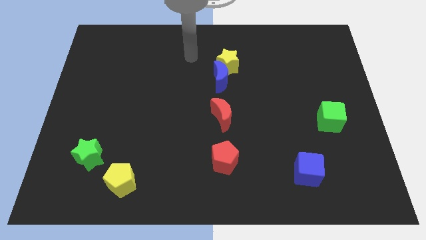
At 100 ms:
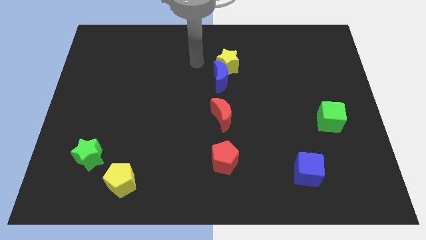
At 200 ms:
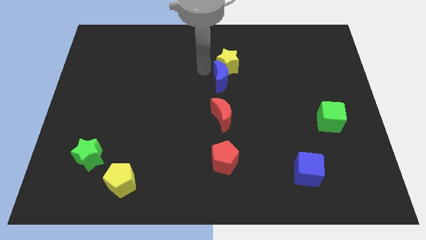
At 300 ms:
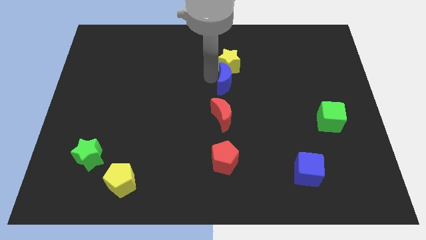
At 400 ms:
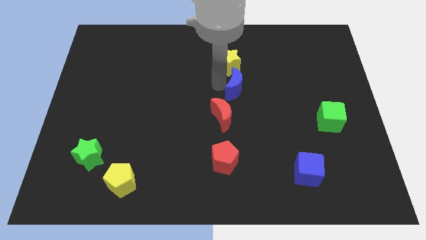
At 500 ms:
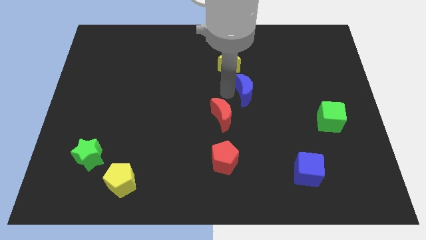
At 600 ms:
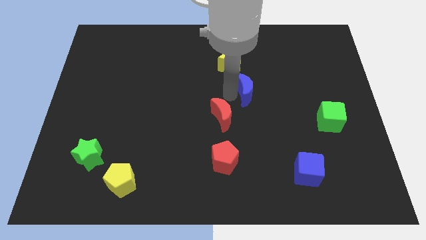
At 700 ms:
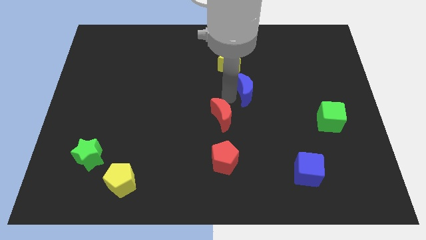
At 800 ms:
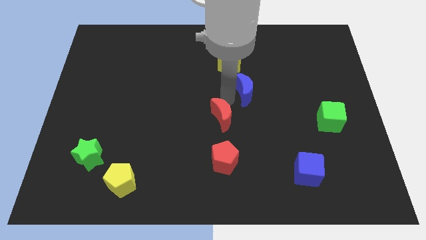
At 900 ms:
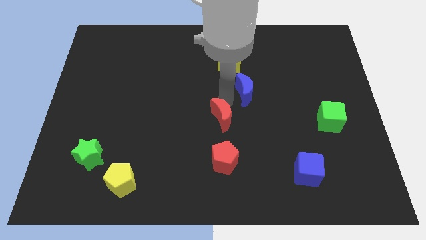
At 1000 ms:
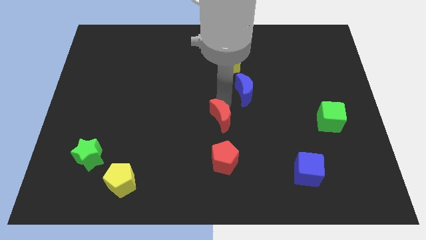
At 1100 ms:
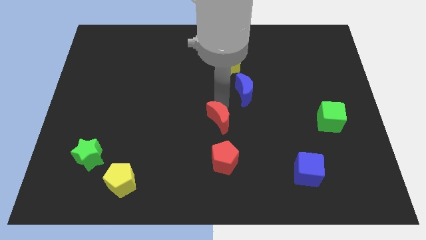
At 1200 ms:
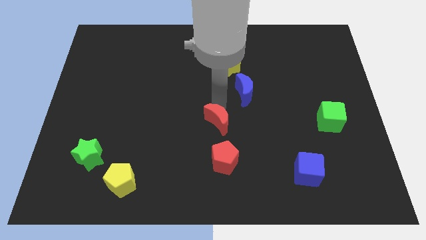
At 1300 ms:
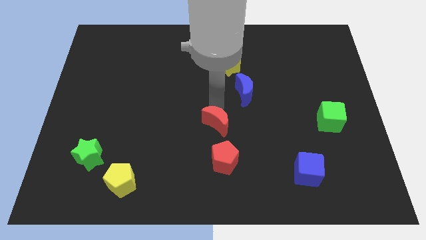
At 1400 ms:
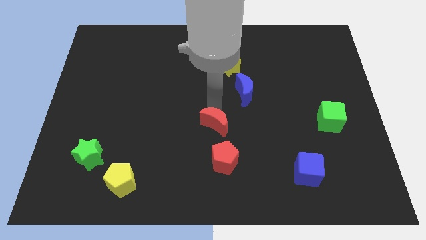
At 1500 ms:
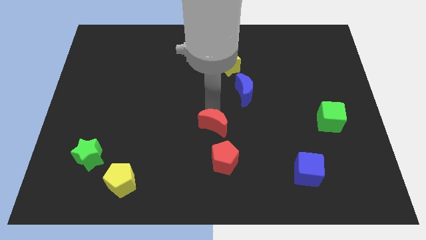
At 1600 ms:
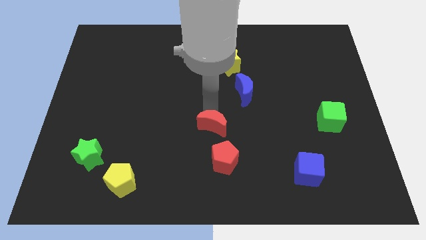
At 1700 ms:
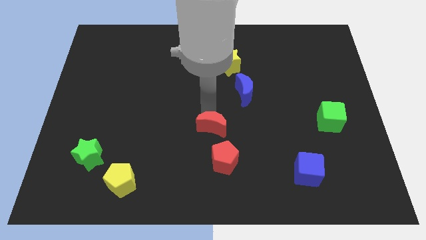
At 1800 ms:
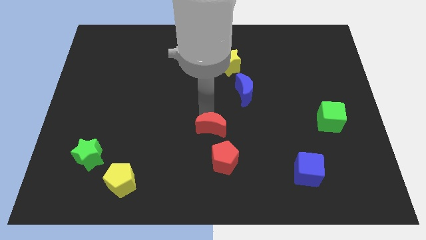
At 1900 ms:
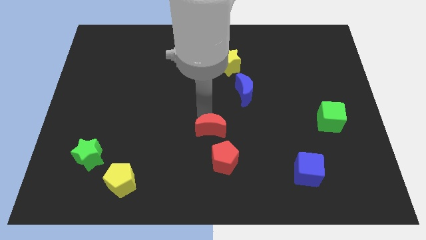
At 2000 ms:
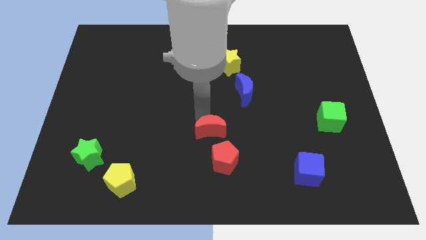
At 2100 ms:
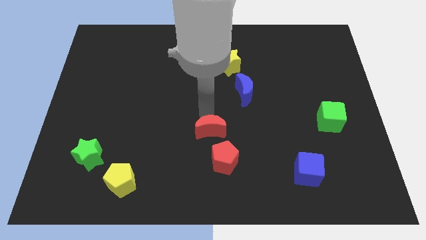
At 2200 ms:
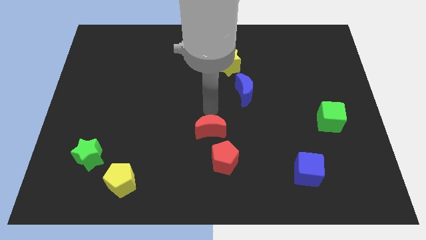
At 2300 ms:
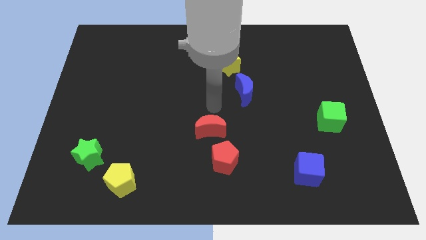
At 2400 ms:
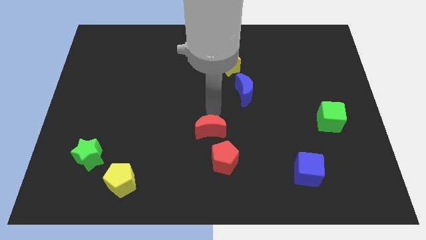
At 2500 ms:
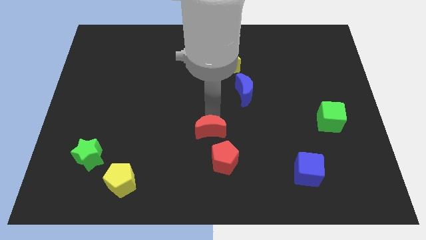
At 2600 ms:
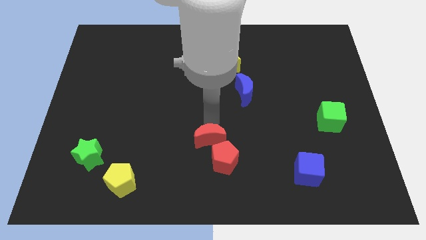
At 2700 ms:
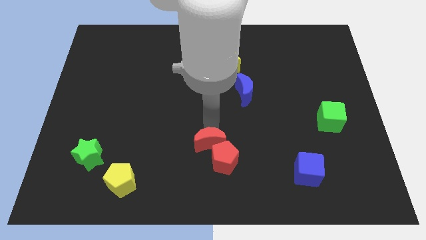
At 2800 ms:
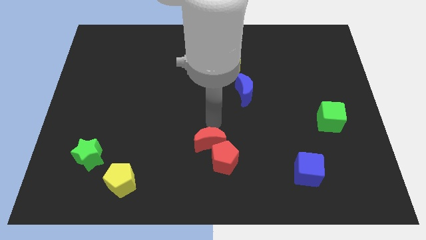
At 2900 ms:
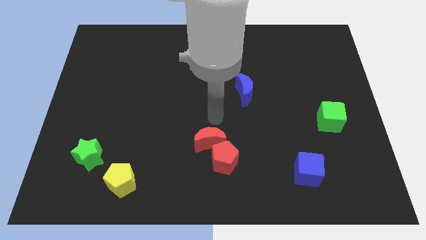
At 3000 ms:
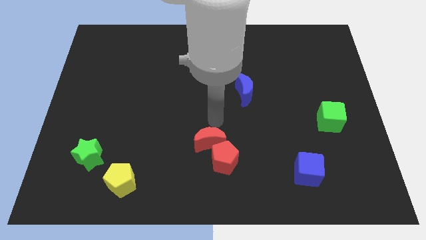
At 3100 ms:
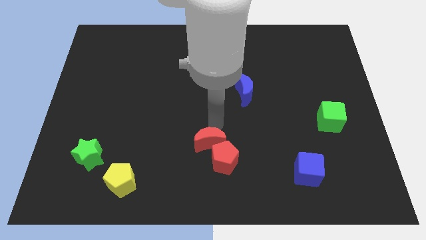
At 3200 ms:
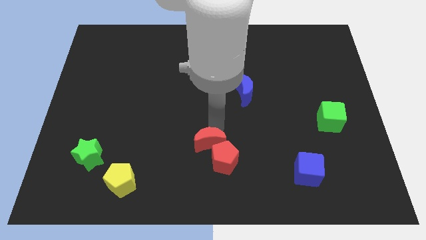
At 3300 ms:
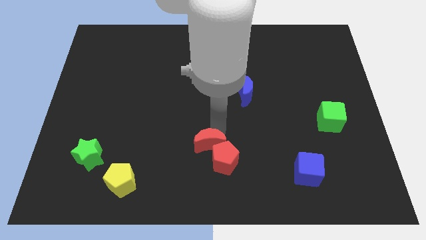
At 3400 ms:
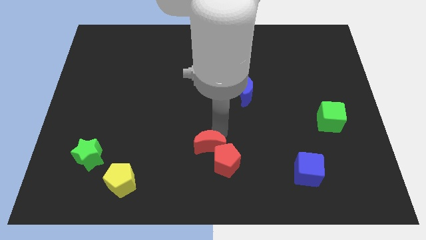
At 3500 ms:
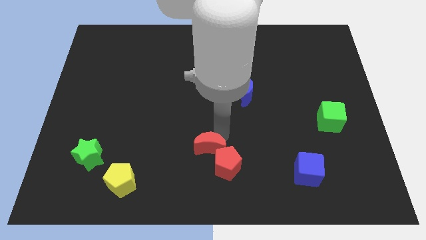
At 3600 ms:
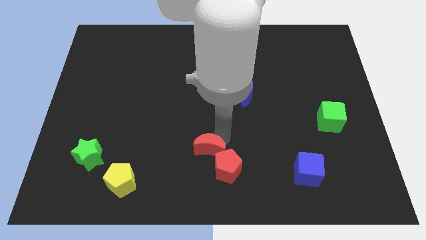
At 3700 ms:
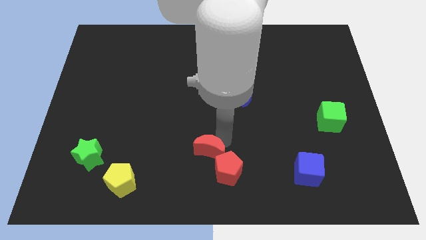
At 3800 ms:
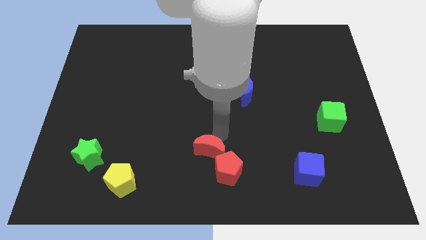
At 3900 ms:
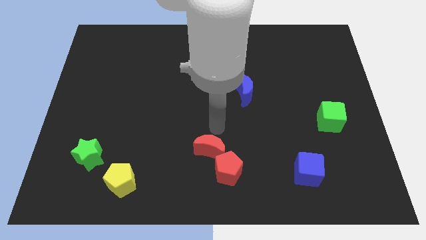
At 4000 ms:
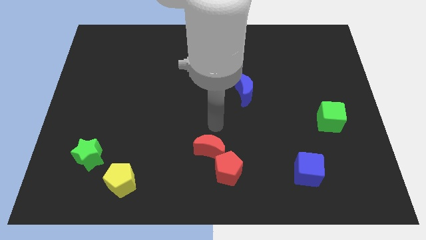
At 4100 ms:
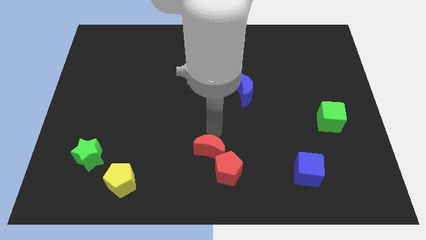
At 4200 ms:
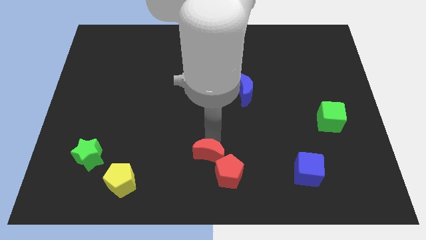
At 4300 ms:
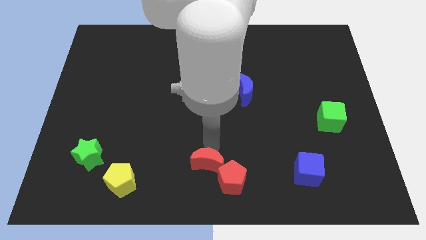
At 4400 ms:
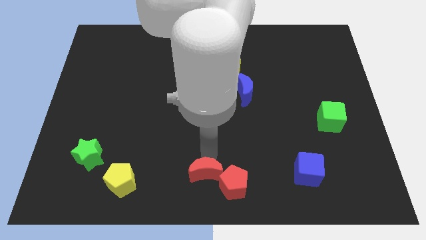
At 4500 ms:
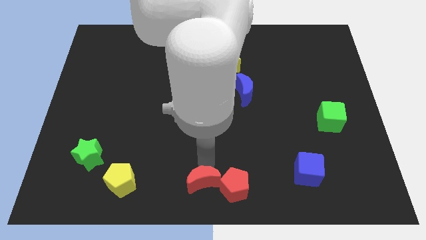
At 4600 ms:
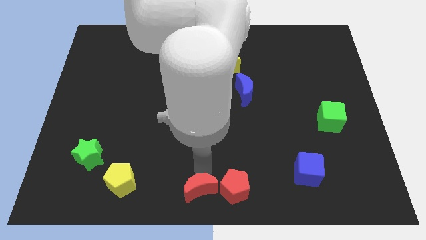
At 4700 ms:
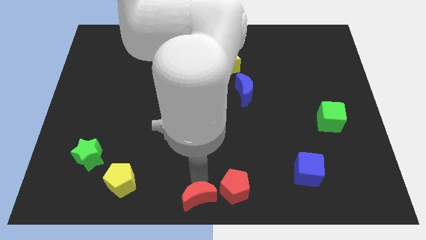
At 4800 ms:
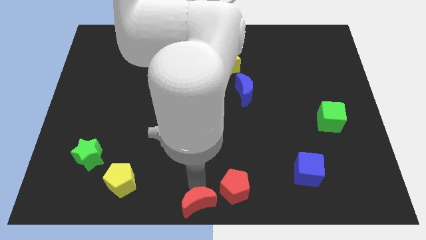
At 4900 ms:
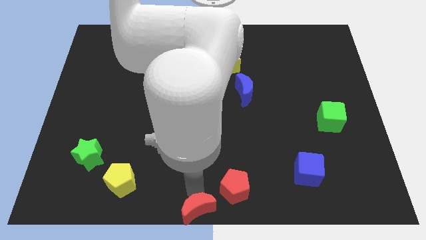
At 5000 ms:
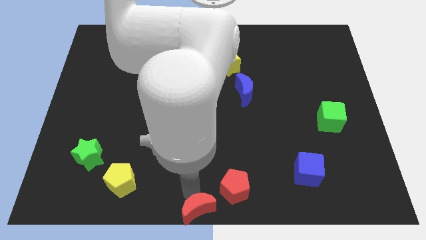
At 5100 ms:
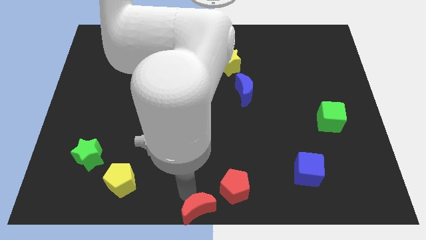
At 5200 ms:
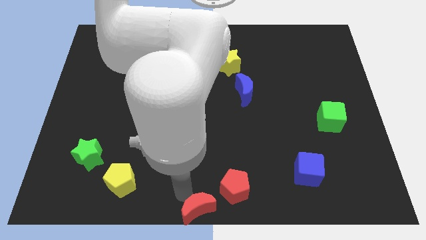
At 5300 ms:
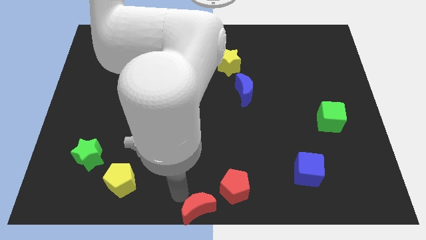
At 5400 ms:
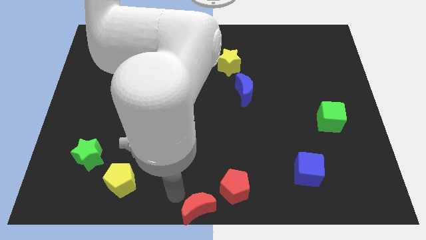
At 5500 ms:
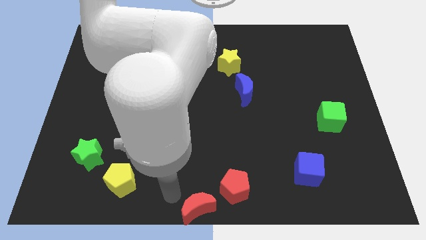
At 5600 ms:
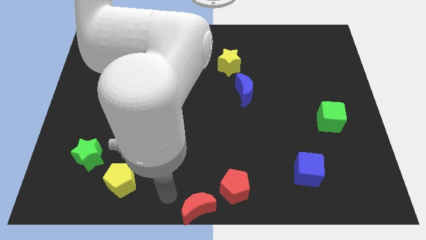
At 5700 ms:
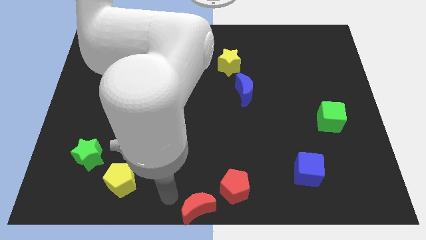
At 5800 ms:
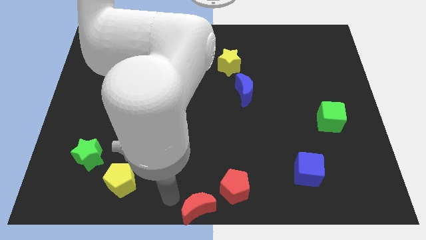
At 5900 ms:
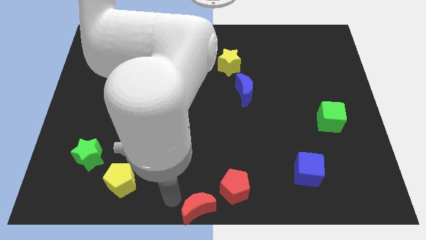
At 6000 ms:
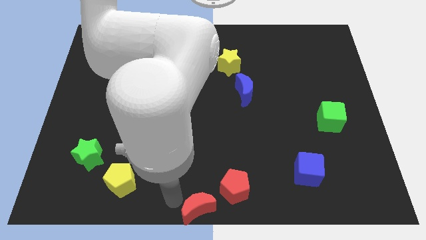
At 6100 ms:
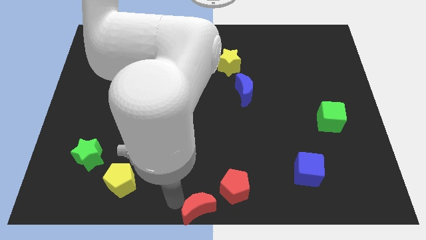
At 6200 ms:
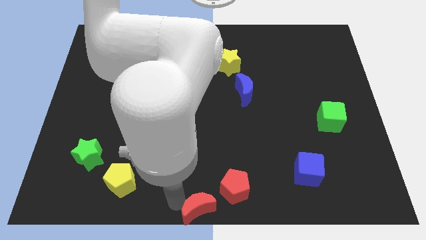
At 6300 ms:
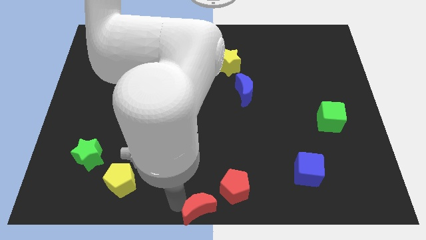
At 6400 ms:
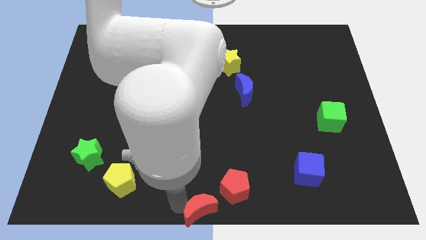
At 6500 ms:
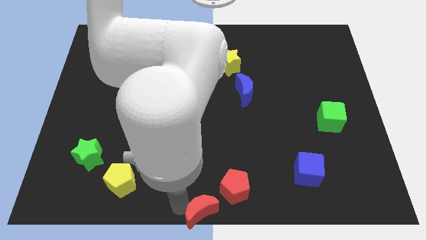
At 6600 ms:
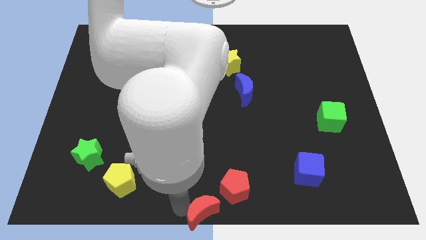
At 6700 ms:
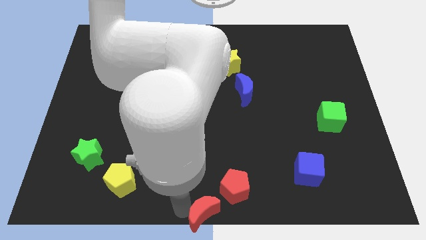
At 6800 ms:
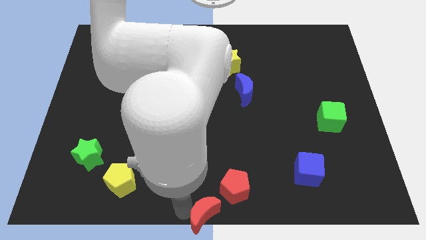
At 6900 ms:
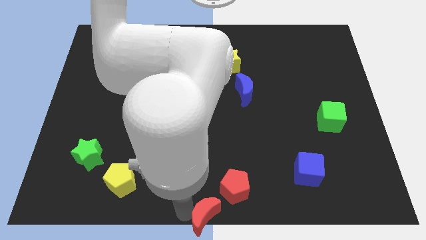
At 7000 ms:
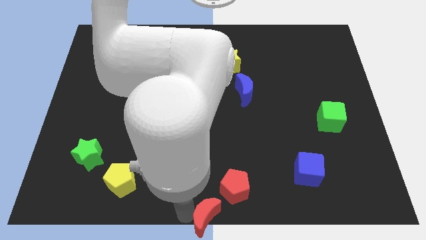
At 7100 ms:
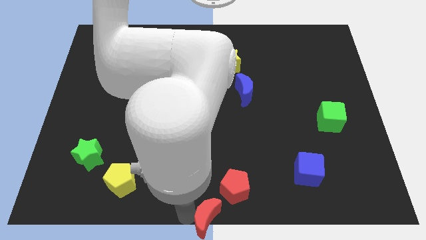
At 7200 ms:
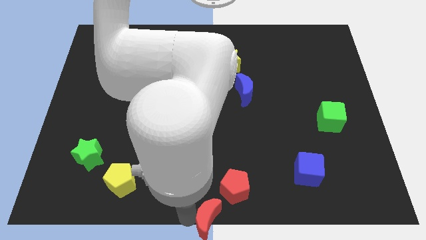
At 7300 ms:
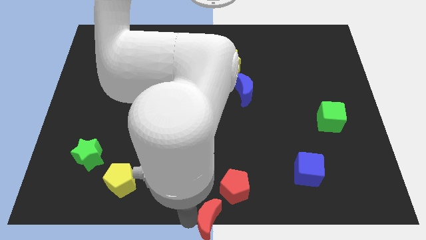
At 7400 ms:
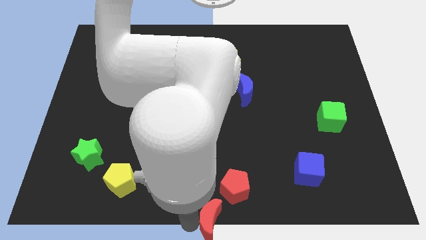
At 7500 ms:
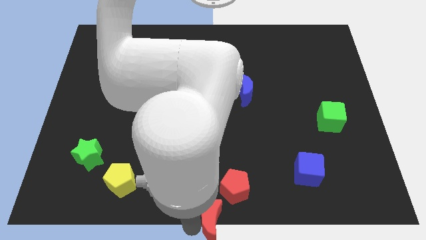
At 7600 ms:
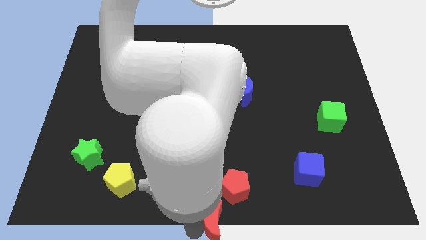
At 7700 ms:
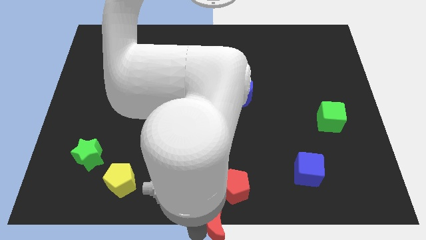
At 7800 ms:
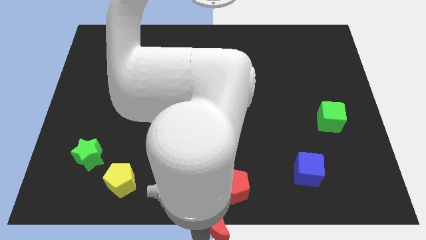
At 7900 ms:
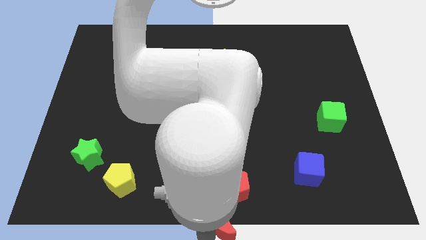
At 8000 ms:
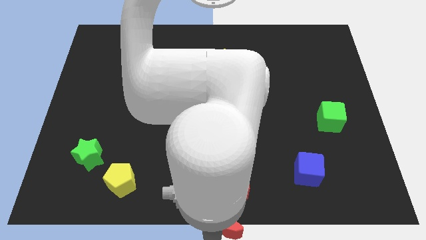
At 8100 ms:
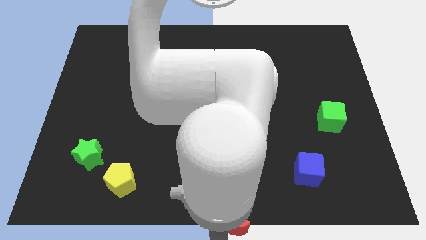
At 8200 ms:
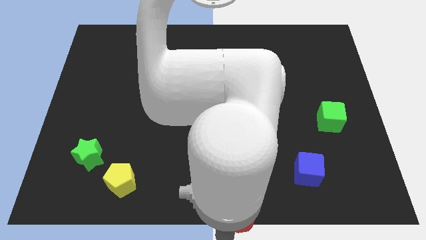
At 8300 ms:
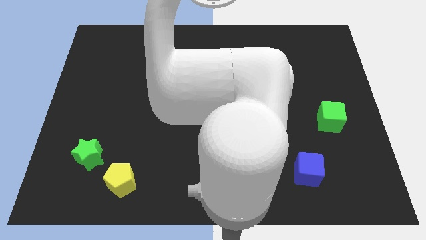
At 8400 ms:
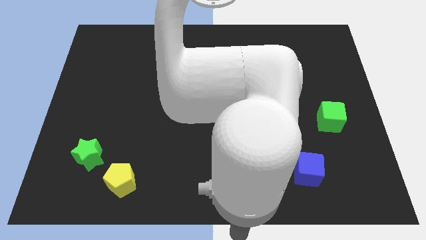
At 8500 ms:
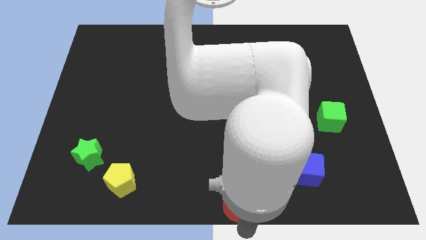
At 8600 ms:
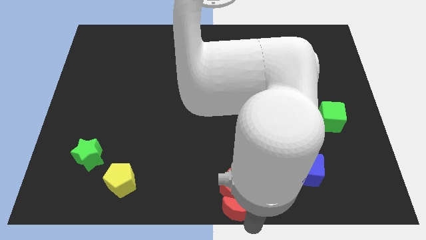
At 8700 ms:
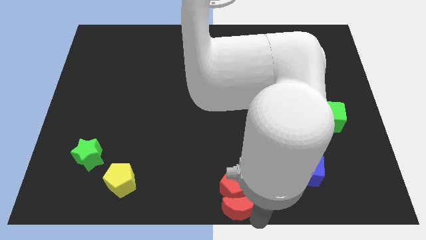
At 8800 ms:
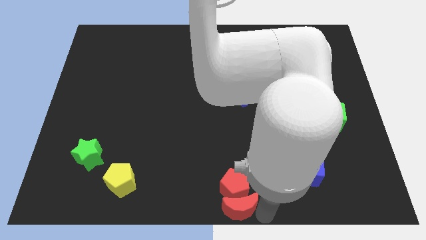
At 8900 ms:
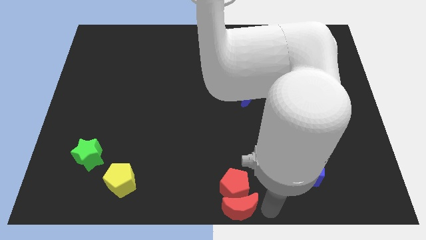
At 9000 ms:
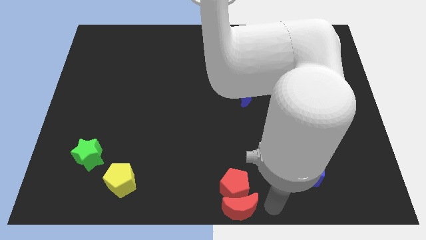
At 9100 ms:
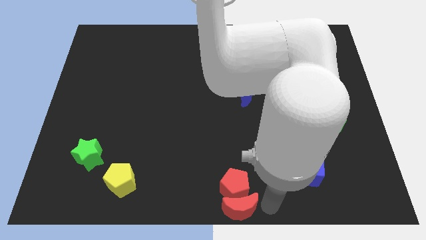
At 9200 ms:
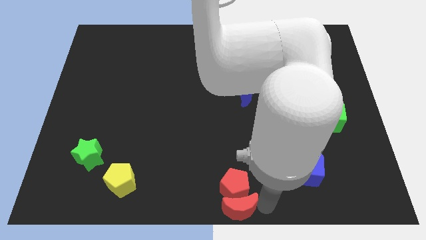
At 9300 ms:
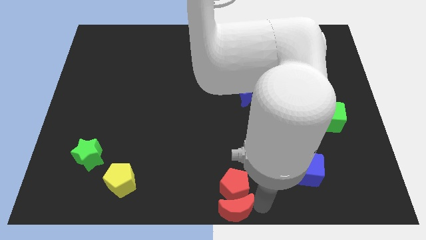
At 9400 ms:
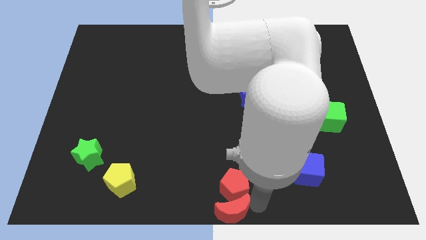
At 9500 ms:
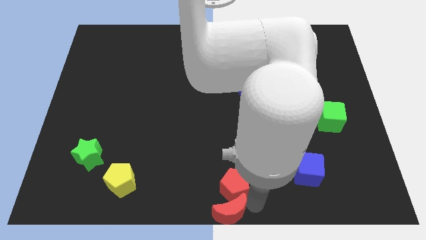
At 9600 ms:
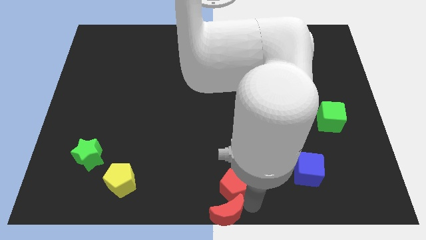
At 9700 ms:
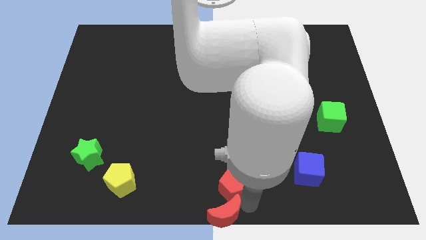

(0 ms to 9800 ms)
slide the red moon to the bottom left side of the red pentagon
